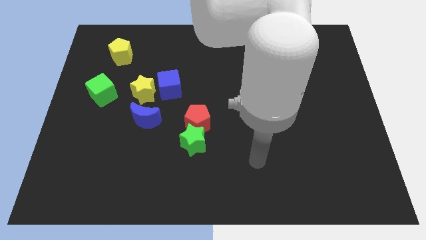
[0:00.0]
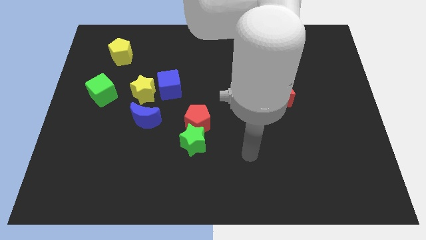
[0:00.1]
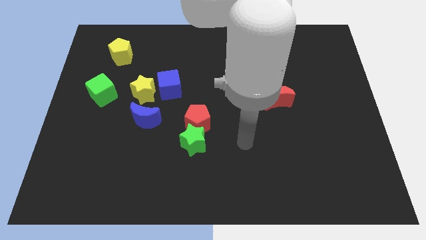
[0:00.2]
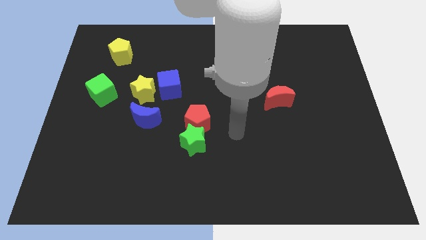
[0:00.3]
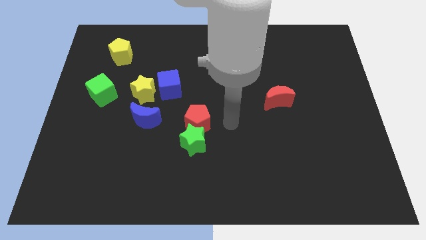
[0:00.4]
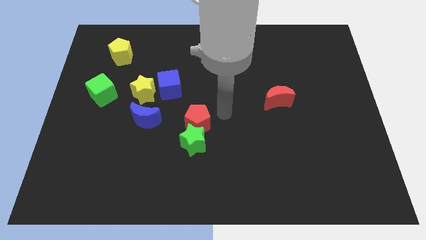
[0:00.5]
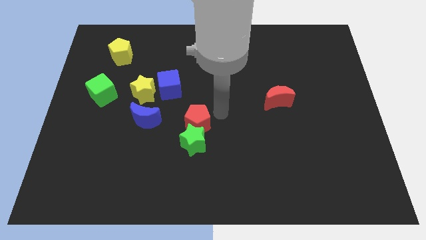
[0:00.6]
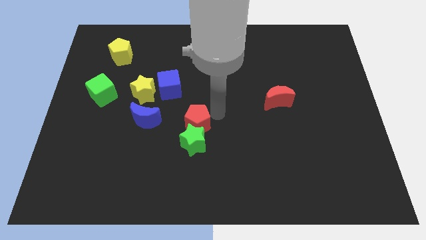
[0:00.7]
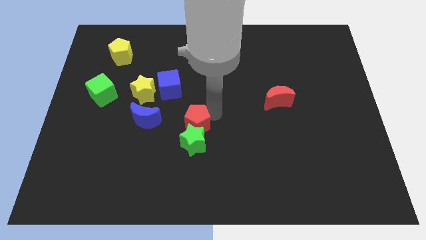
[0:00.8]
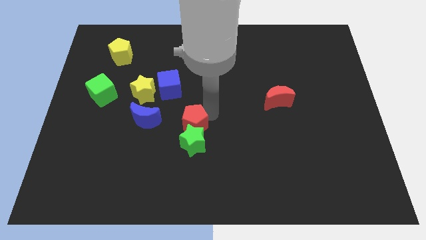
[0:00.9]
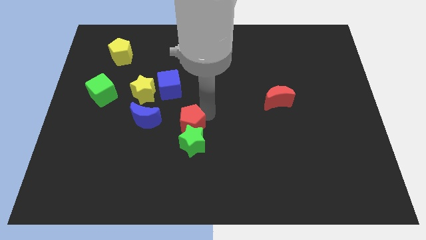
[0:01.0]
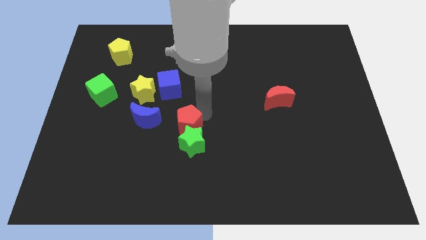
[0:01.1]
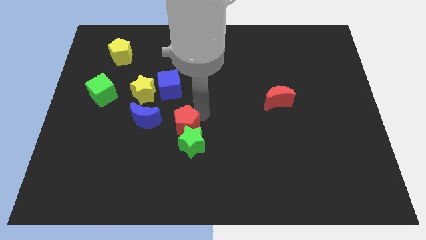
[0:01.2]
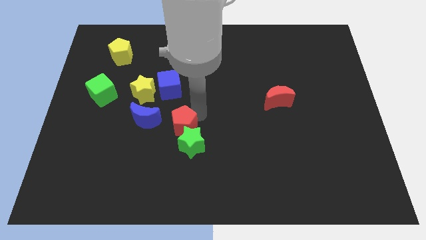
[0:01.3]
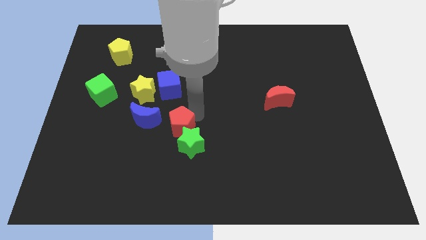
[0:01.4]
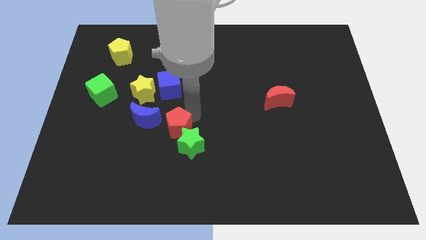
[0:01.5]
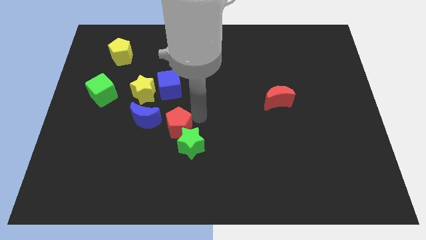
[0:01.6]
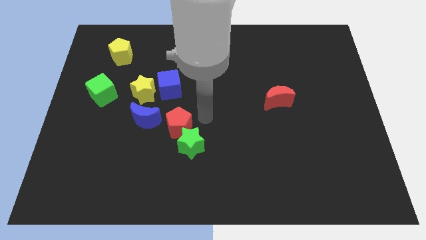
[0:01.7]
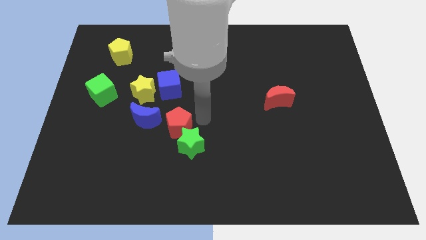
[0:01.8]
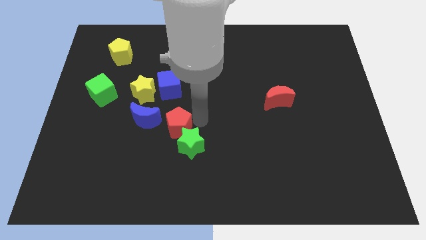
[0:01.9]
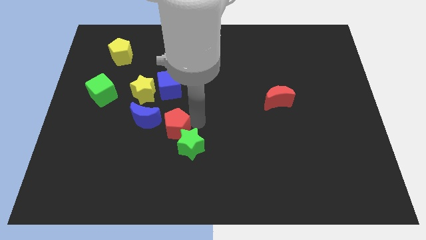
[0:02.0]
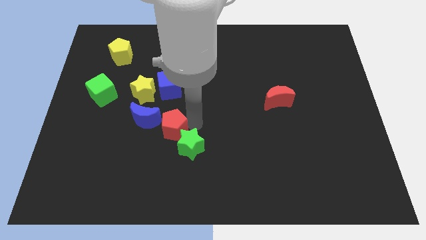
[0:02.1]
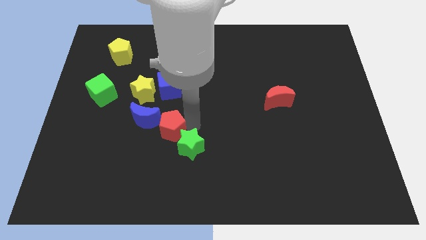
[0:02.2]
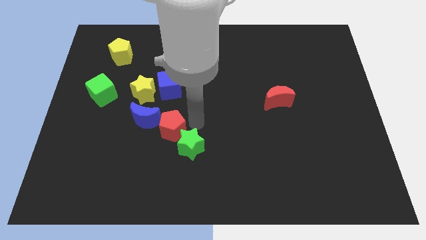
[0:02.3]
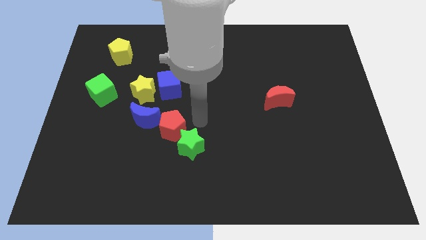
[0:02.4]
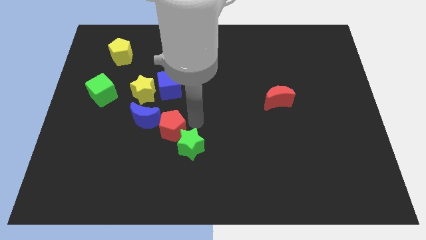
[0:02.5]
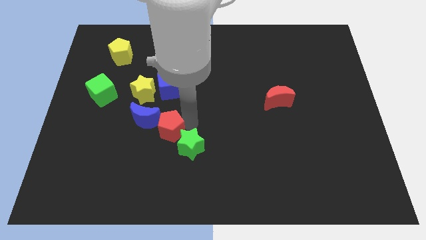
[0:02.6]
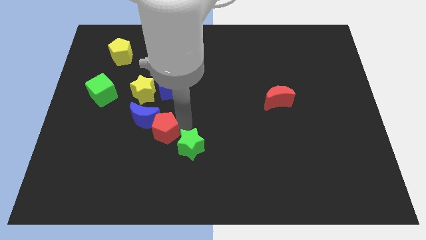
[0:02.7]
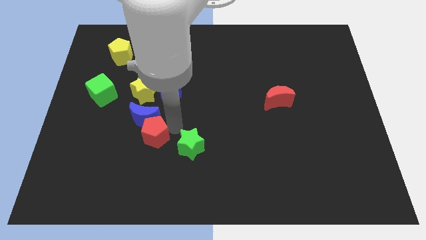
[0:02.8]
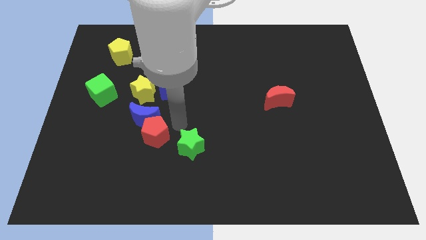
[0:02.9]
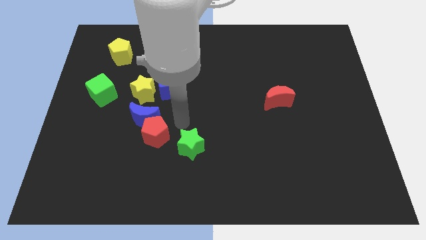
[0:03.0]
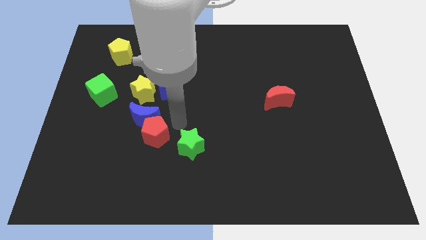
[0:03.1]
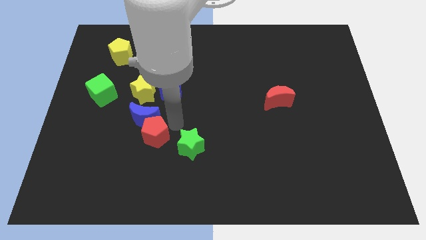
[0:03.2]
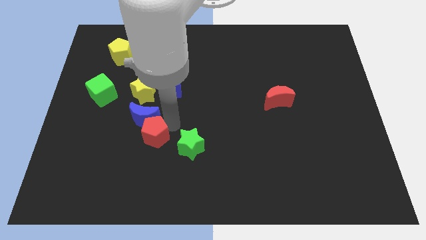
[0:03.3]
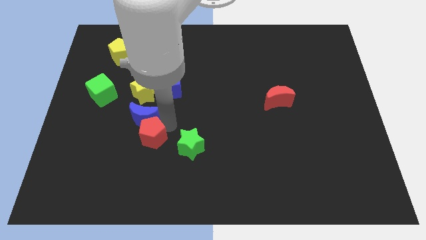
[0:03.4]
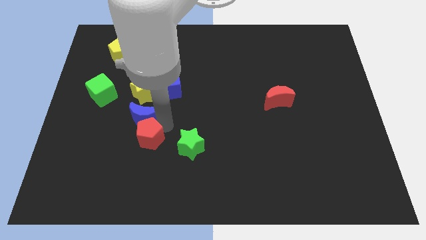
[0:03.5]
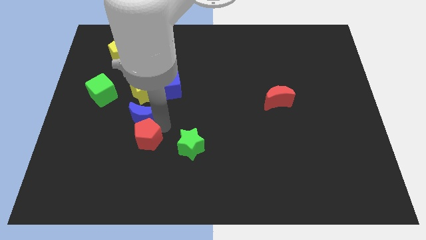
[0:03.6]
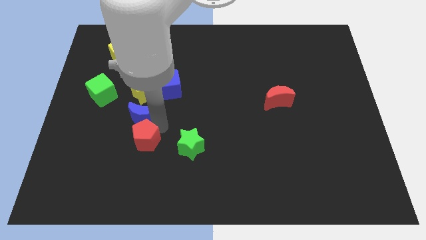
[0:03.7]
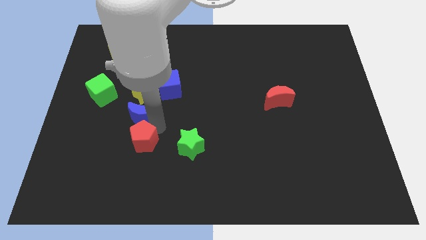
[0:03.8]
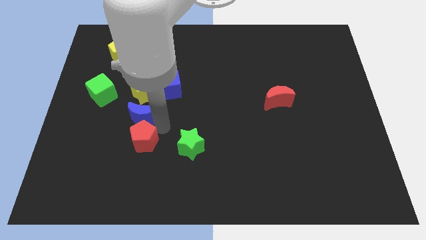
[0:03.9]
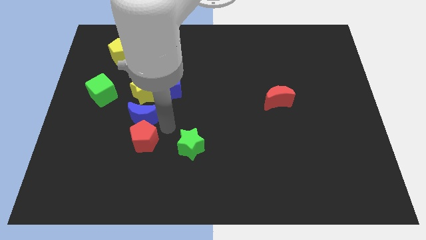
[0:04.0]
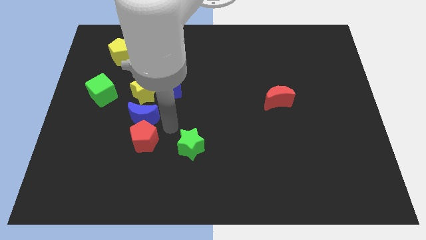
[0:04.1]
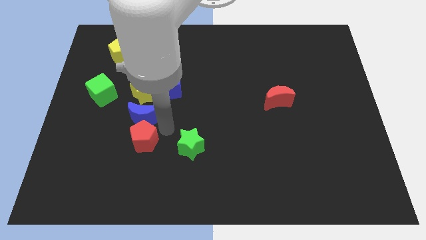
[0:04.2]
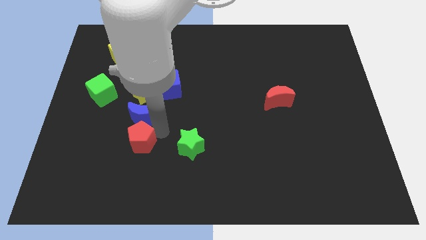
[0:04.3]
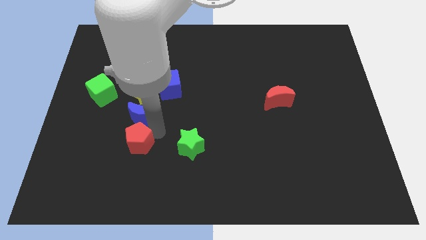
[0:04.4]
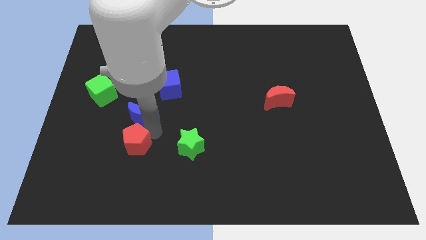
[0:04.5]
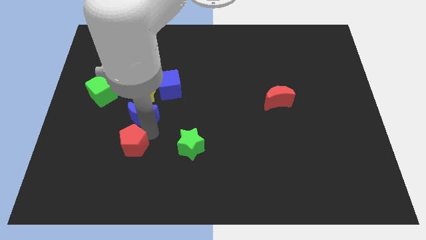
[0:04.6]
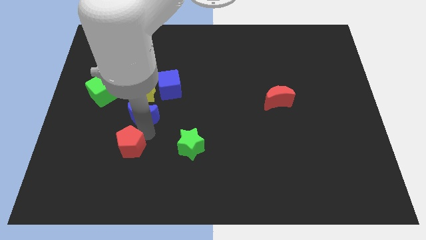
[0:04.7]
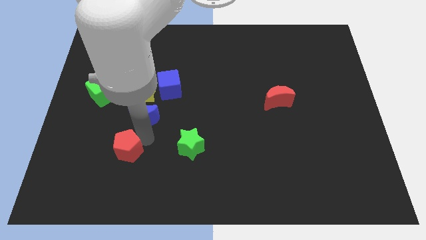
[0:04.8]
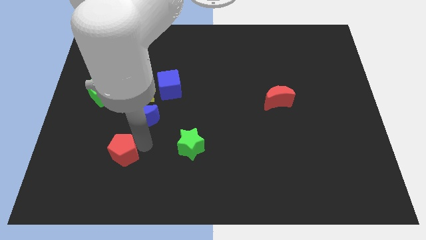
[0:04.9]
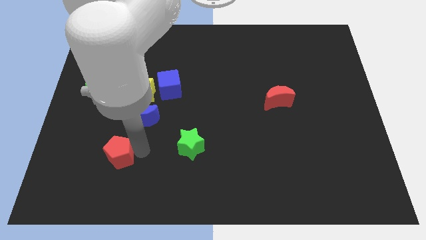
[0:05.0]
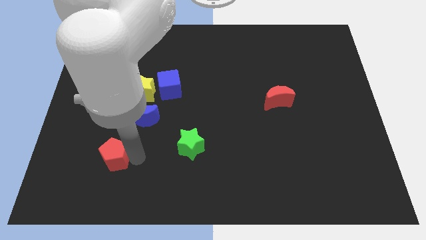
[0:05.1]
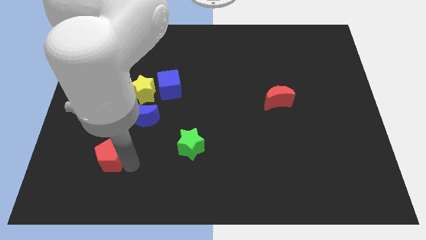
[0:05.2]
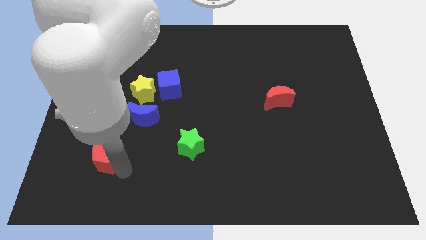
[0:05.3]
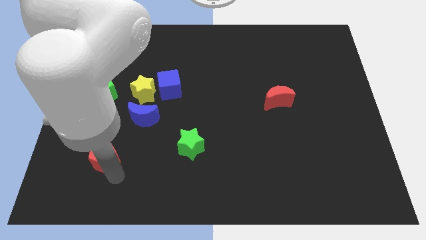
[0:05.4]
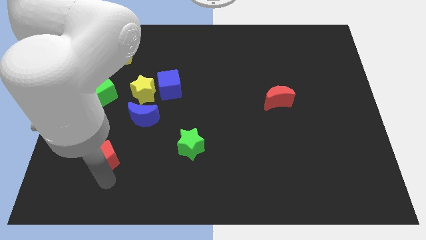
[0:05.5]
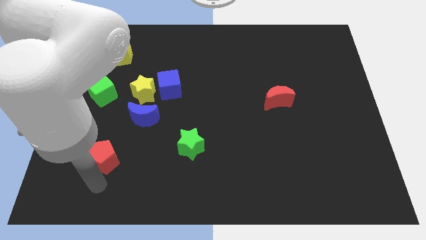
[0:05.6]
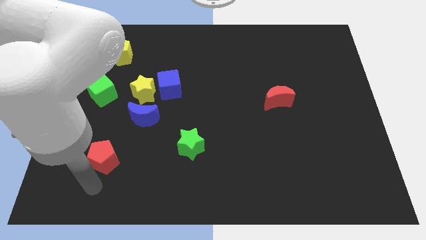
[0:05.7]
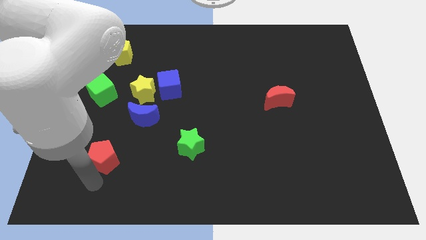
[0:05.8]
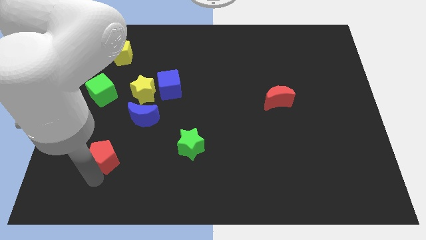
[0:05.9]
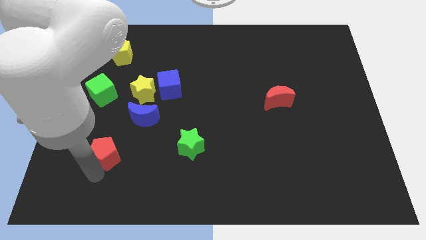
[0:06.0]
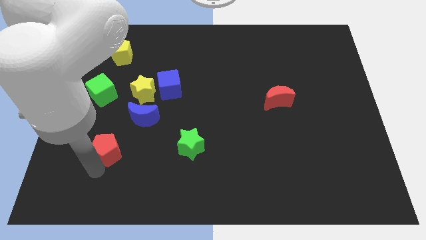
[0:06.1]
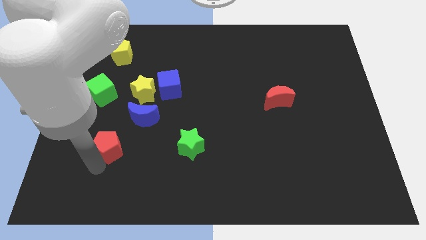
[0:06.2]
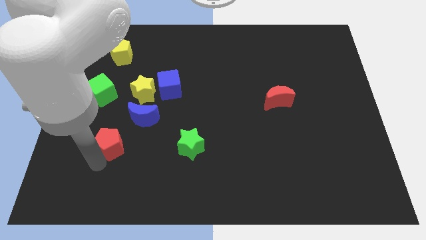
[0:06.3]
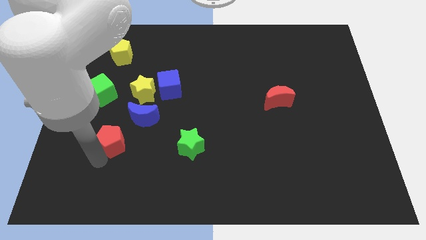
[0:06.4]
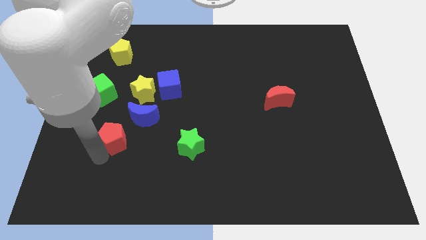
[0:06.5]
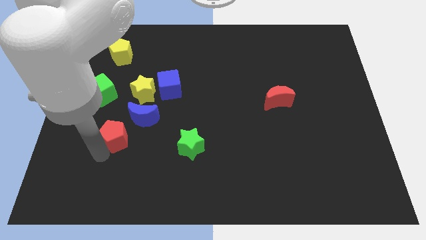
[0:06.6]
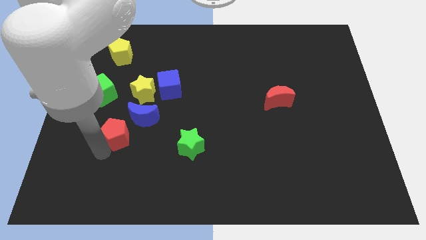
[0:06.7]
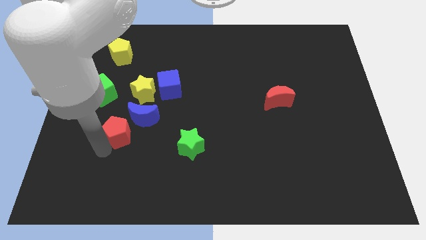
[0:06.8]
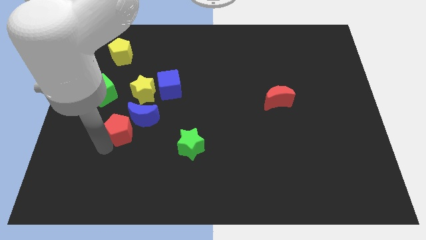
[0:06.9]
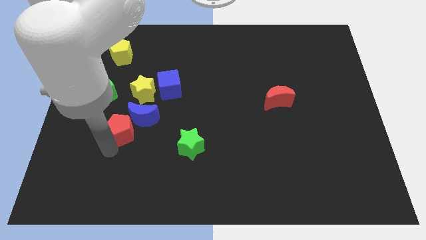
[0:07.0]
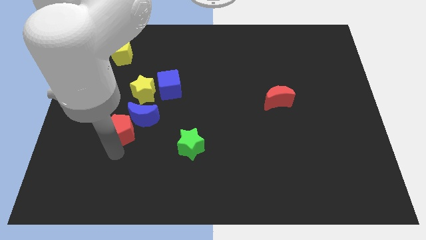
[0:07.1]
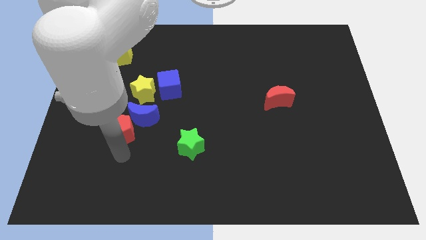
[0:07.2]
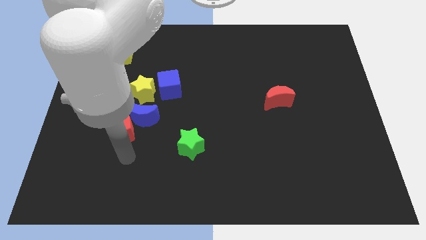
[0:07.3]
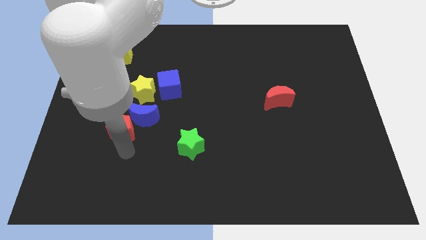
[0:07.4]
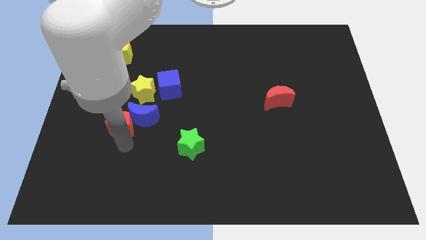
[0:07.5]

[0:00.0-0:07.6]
push the red pentagon diagonally down and to the left of the yellow star

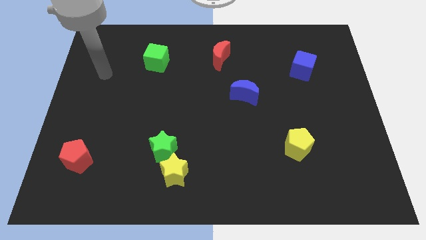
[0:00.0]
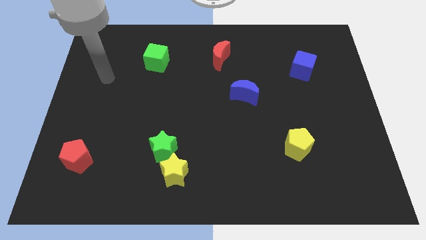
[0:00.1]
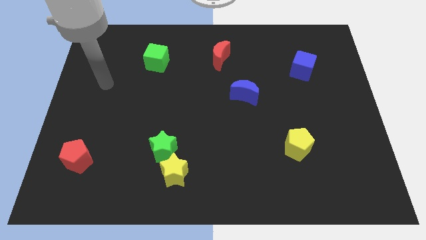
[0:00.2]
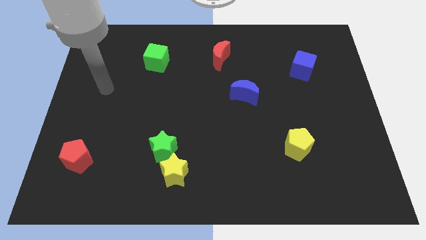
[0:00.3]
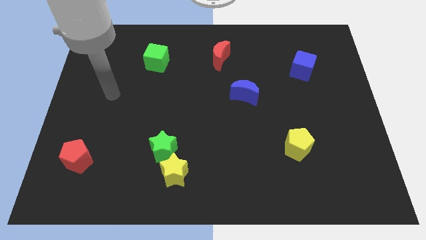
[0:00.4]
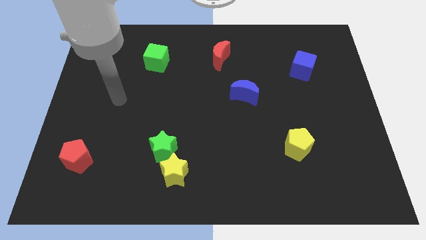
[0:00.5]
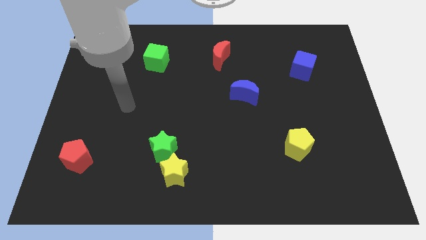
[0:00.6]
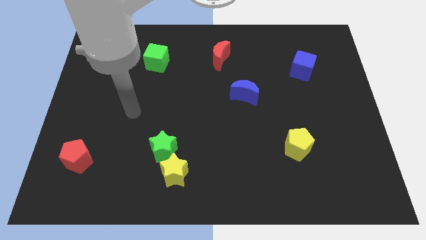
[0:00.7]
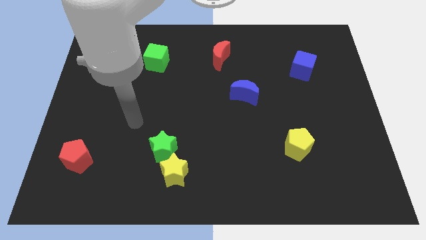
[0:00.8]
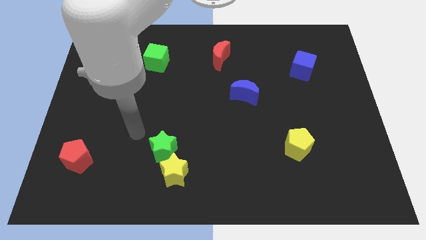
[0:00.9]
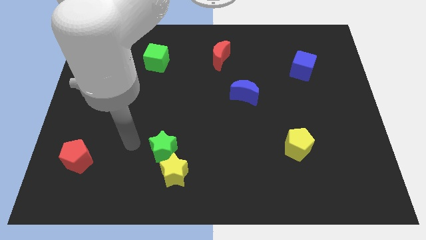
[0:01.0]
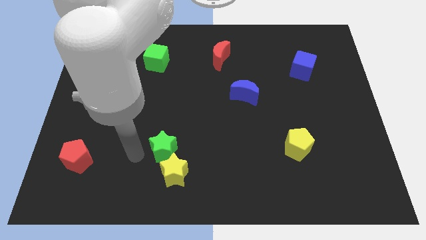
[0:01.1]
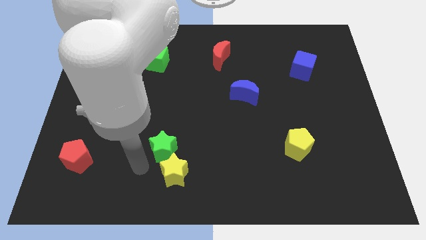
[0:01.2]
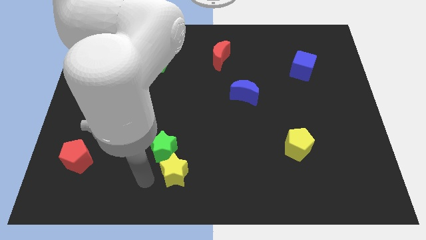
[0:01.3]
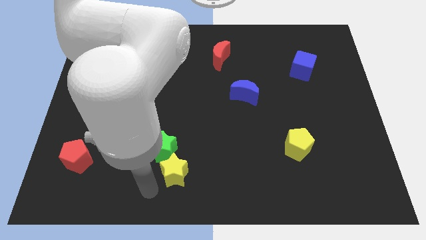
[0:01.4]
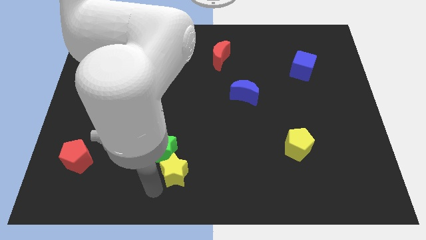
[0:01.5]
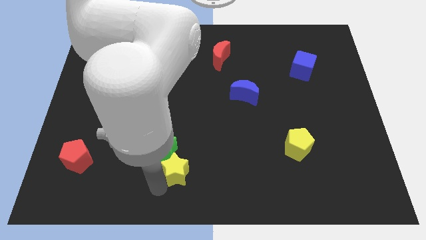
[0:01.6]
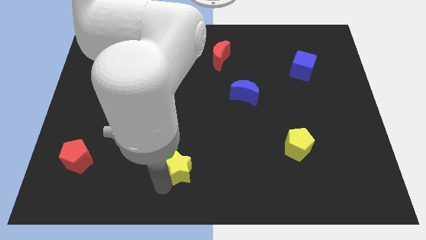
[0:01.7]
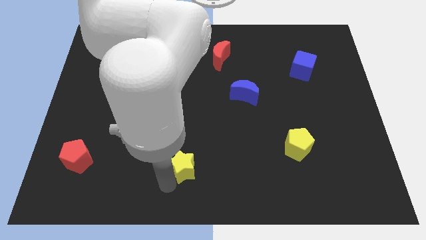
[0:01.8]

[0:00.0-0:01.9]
put the yellow star to the right of the green star
